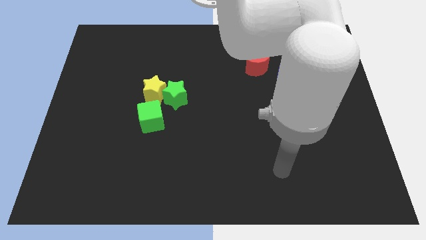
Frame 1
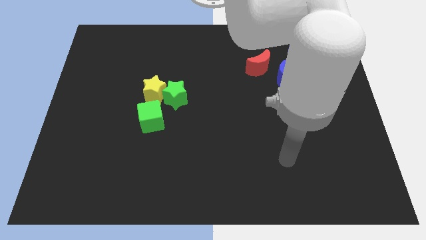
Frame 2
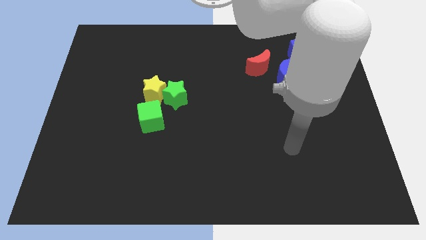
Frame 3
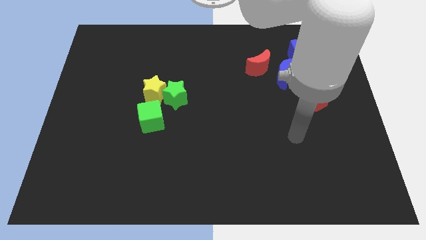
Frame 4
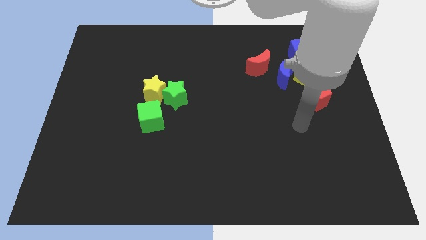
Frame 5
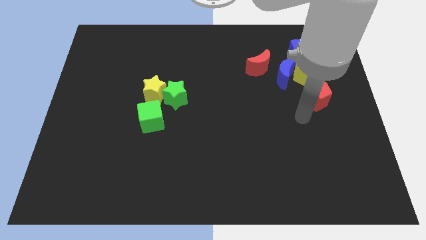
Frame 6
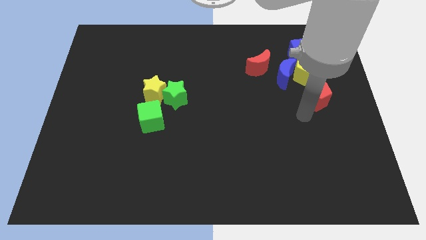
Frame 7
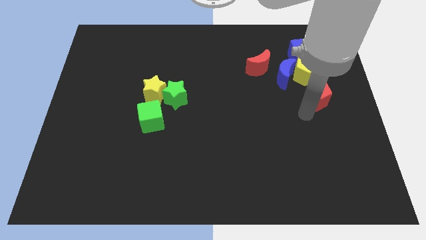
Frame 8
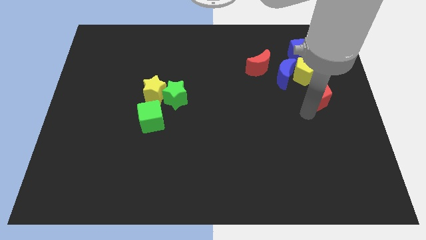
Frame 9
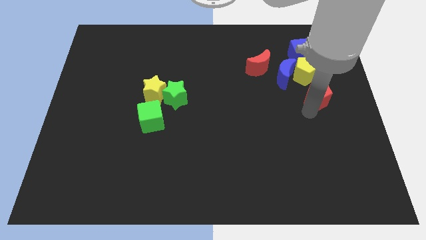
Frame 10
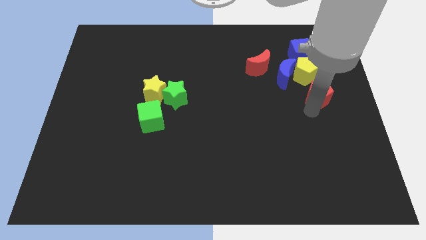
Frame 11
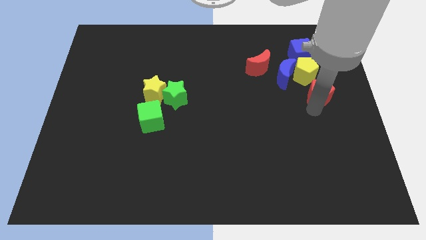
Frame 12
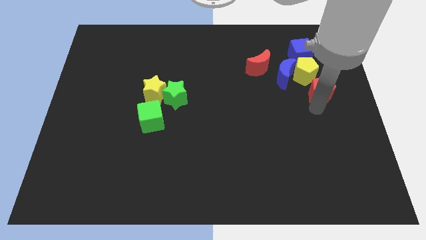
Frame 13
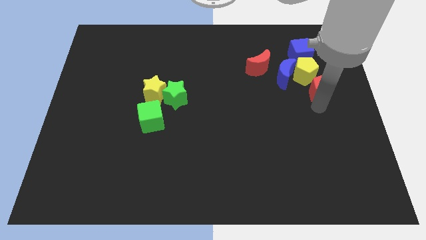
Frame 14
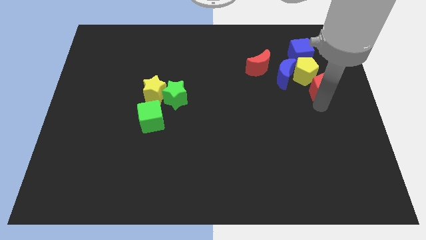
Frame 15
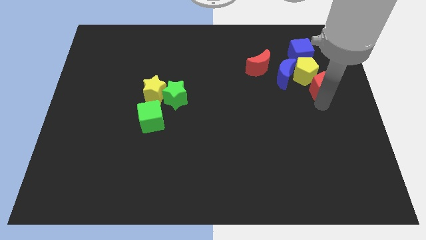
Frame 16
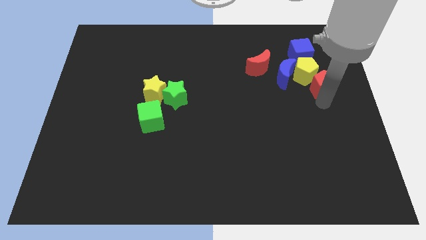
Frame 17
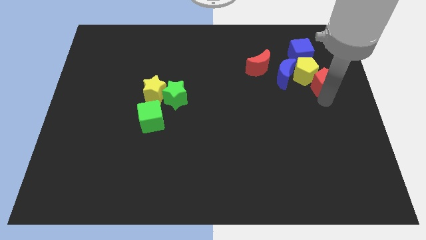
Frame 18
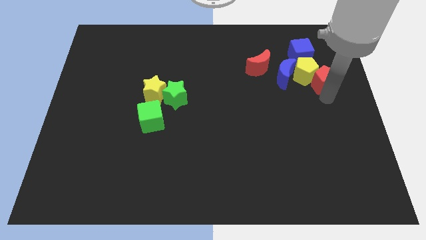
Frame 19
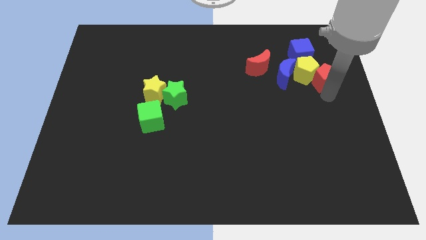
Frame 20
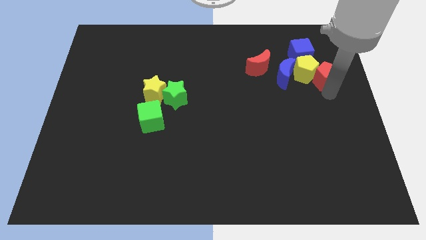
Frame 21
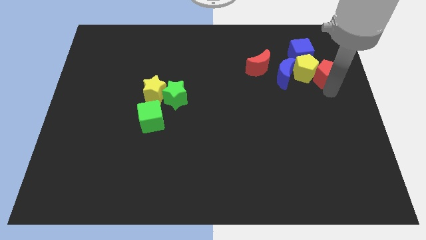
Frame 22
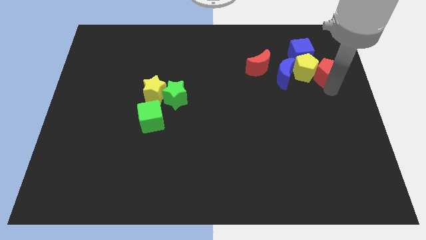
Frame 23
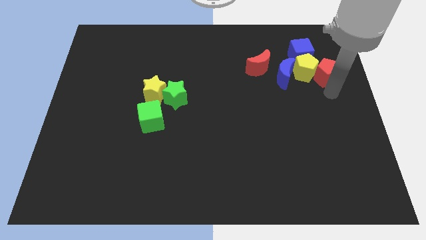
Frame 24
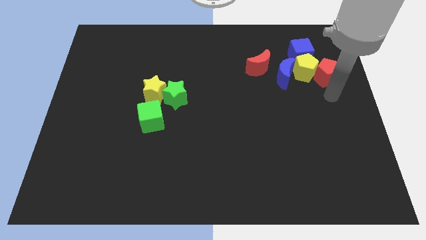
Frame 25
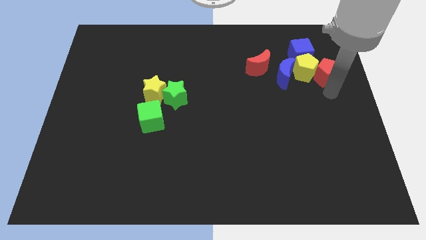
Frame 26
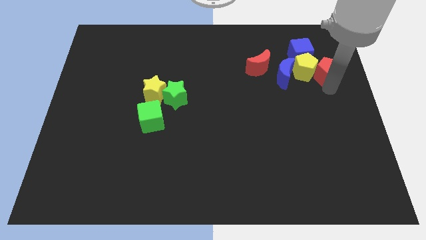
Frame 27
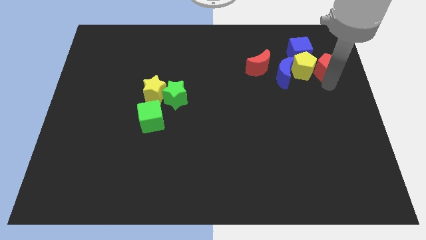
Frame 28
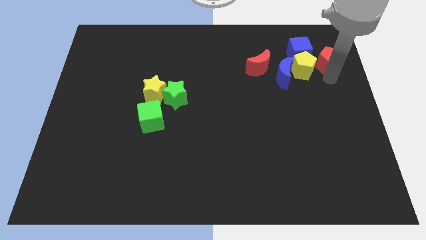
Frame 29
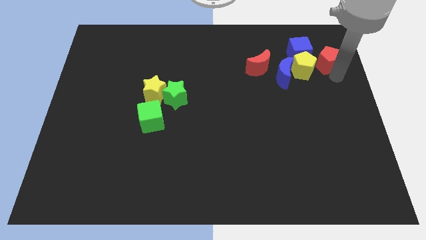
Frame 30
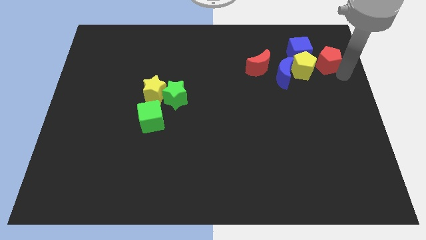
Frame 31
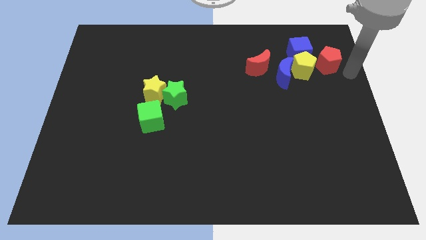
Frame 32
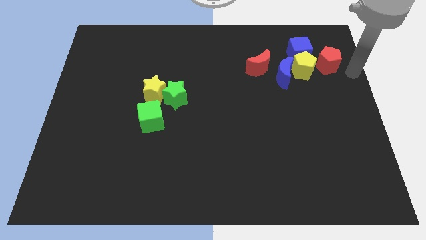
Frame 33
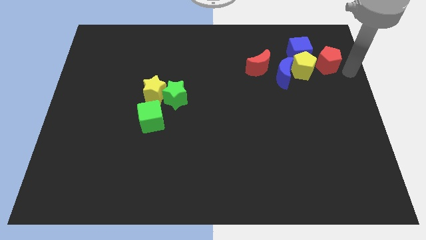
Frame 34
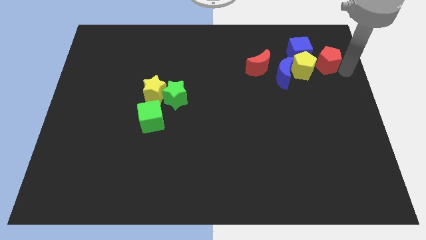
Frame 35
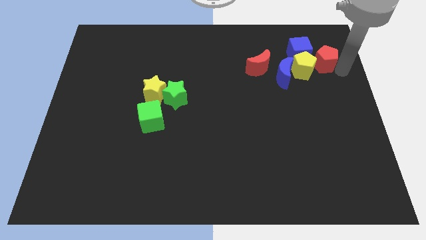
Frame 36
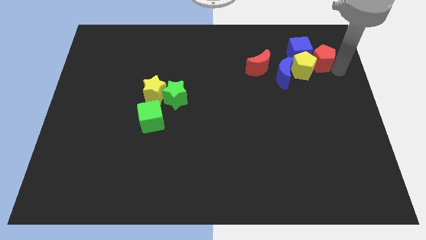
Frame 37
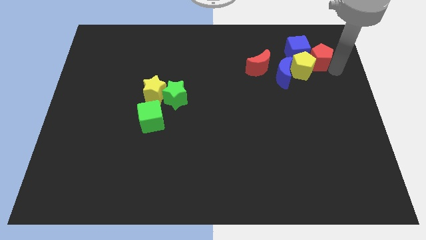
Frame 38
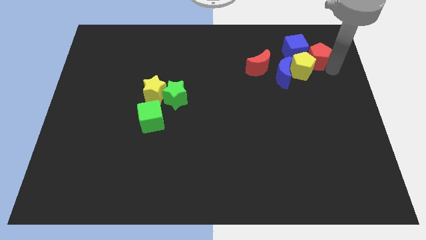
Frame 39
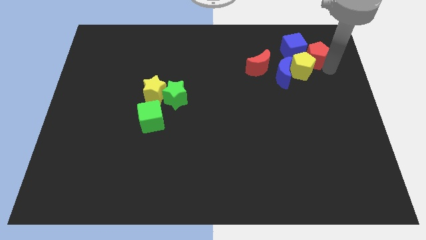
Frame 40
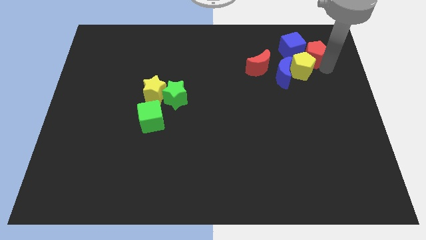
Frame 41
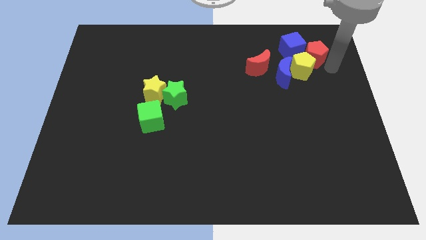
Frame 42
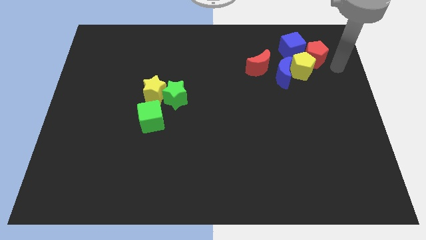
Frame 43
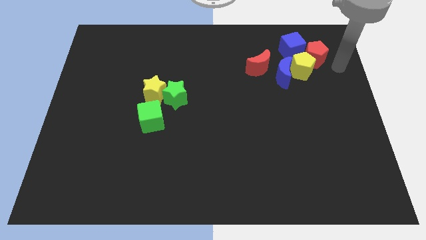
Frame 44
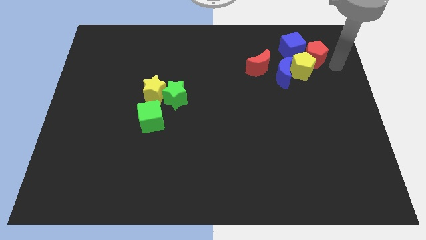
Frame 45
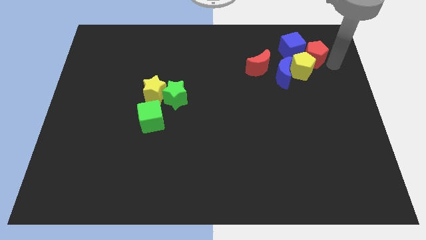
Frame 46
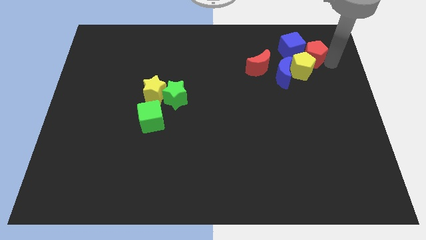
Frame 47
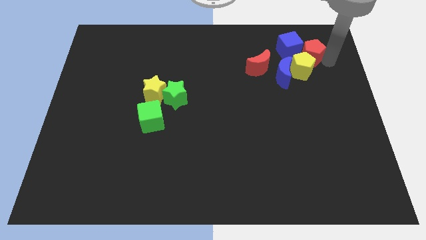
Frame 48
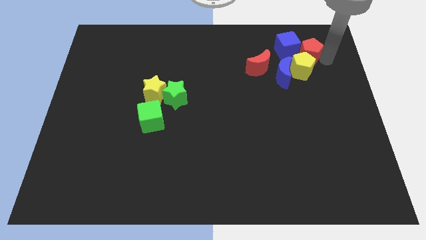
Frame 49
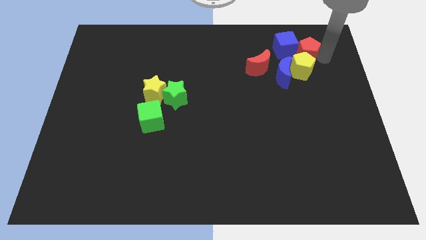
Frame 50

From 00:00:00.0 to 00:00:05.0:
push the red pentagon next to the blue cube

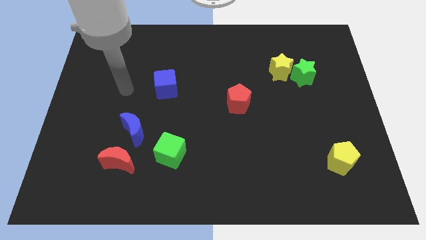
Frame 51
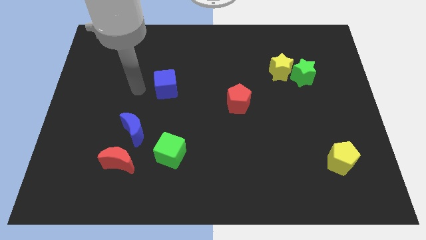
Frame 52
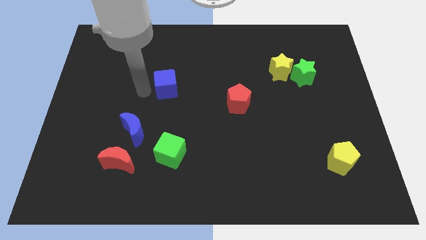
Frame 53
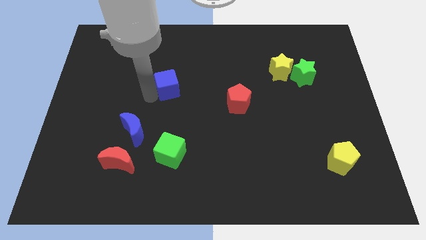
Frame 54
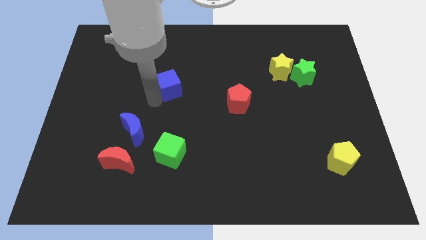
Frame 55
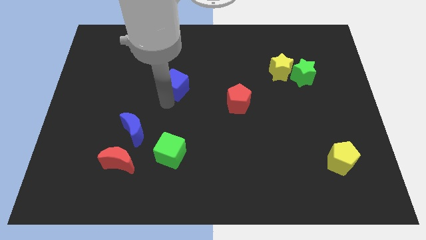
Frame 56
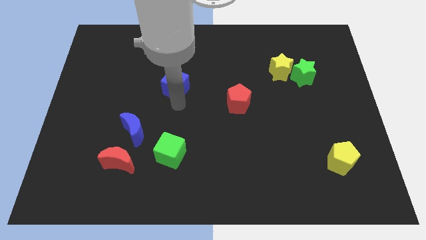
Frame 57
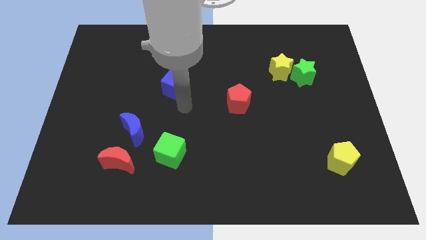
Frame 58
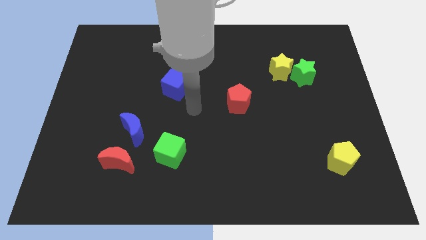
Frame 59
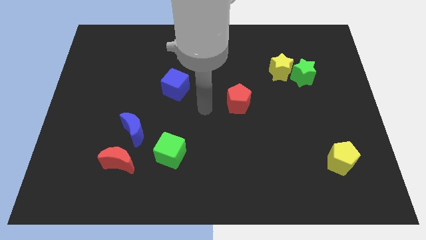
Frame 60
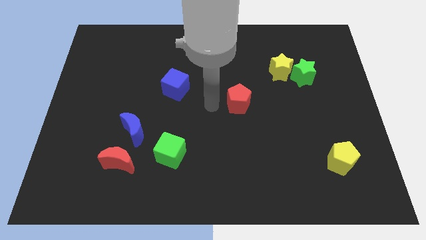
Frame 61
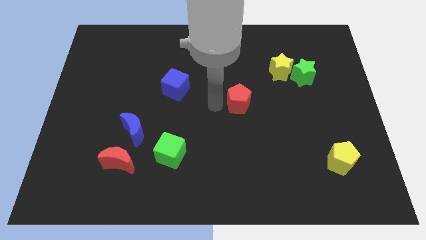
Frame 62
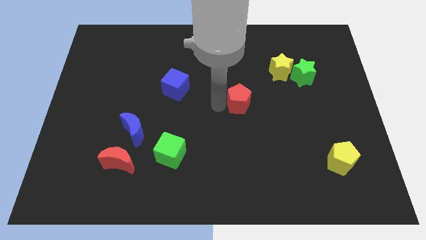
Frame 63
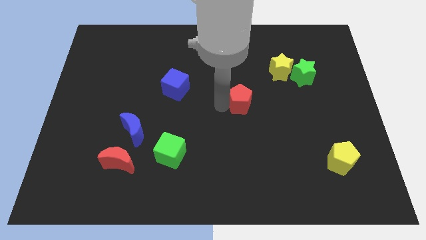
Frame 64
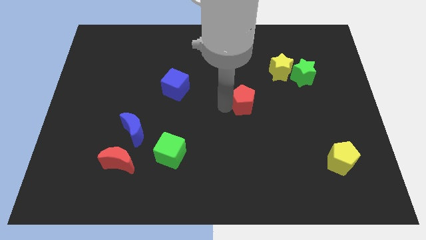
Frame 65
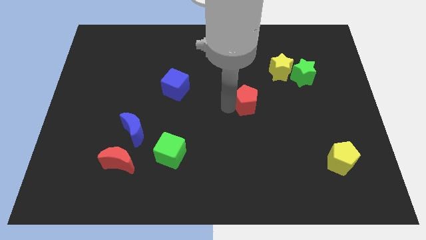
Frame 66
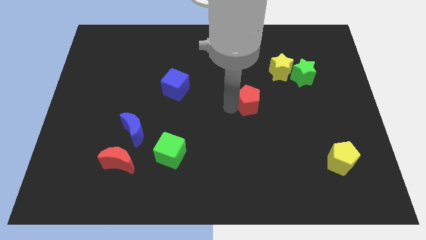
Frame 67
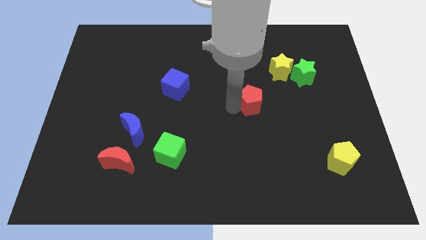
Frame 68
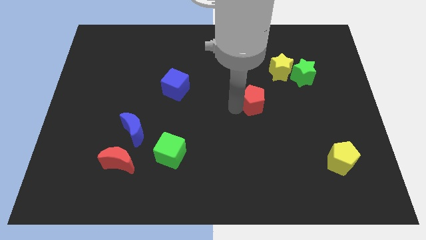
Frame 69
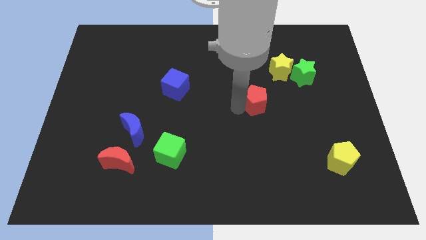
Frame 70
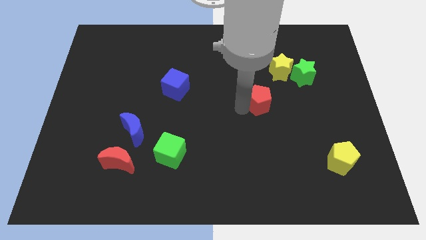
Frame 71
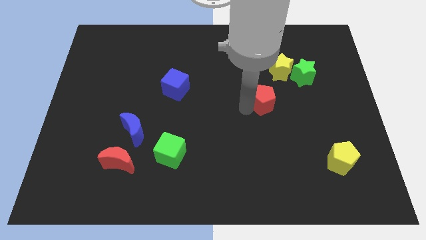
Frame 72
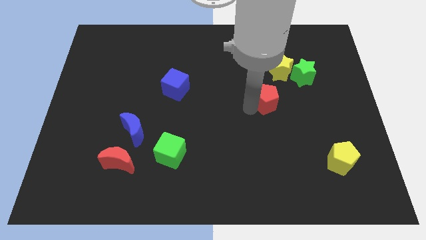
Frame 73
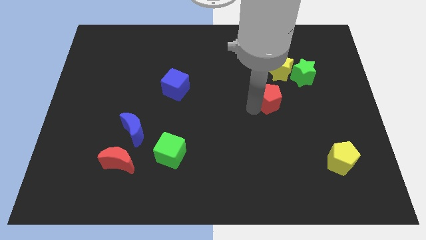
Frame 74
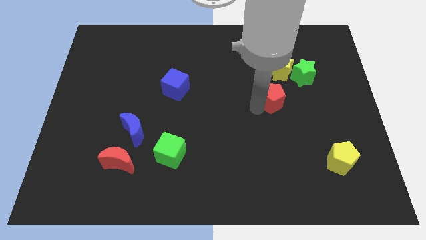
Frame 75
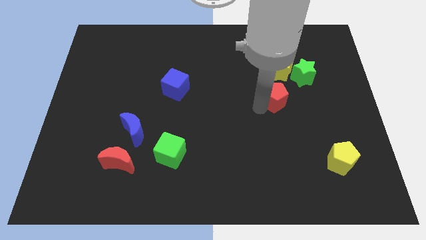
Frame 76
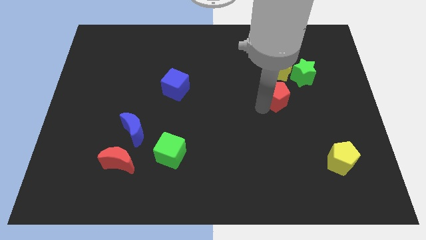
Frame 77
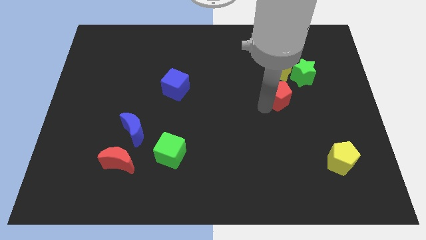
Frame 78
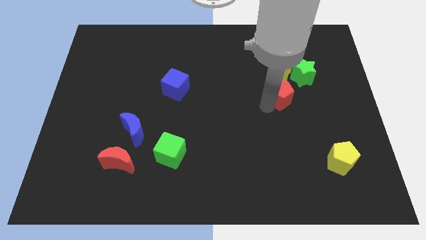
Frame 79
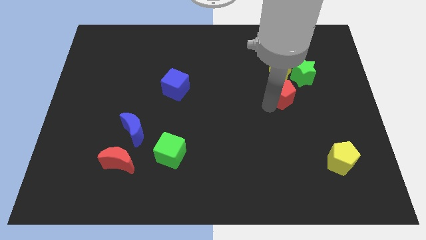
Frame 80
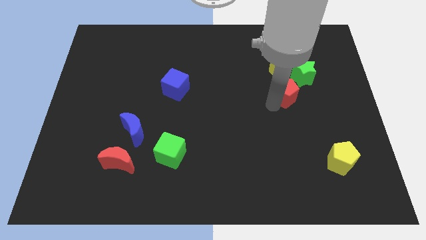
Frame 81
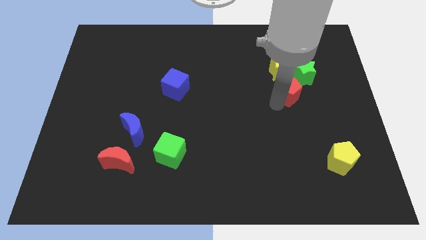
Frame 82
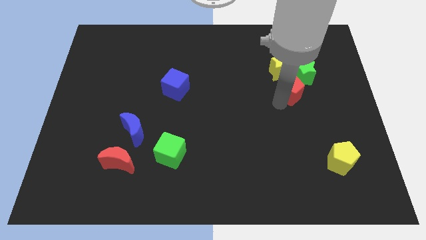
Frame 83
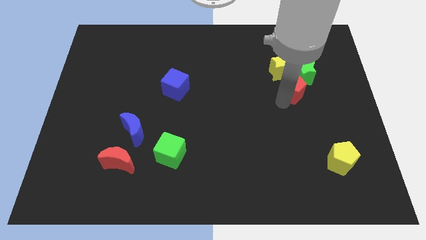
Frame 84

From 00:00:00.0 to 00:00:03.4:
push the red pentagon to the green star
